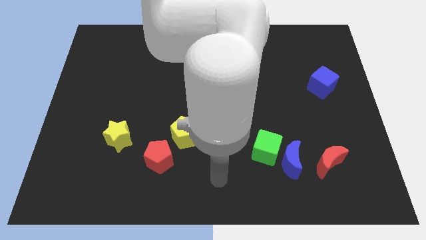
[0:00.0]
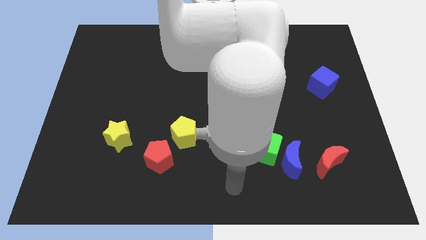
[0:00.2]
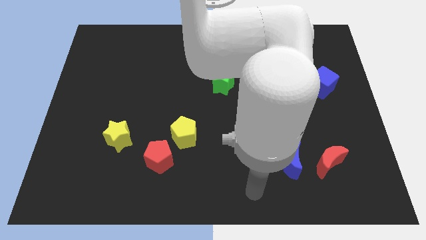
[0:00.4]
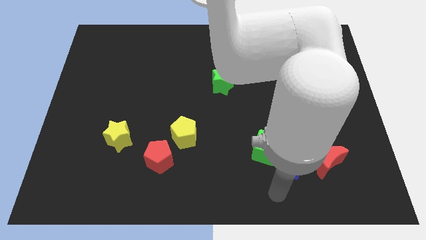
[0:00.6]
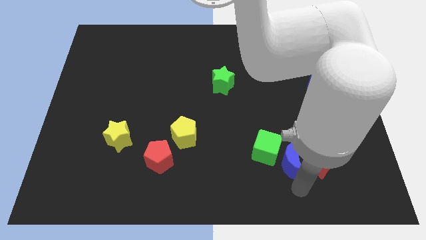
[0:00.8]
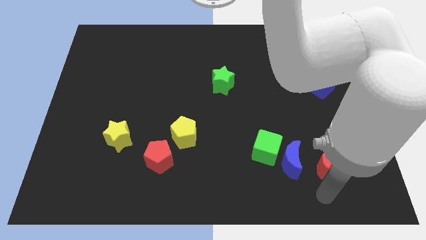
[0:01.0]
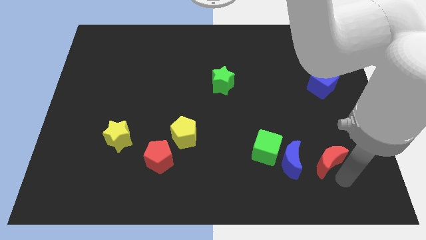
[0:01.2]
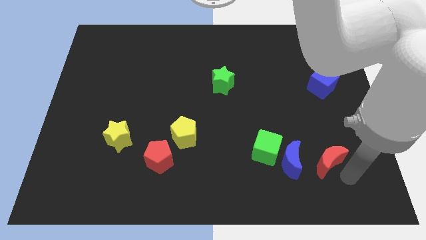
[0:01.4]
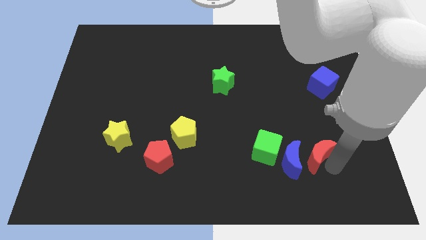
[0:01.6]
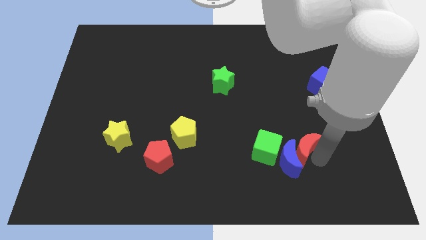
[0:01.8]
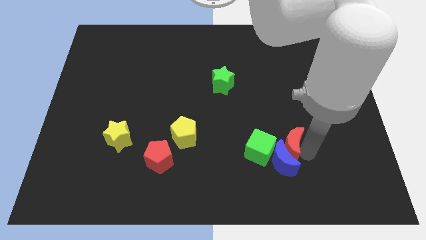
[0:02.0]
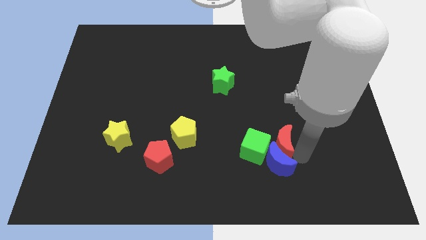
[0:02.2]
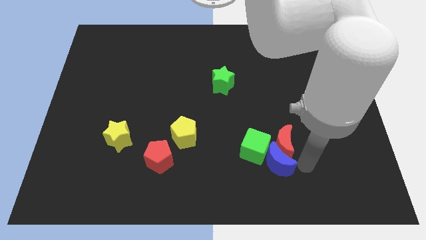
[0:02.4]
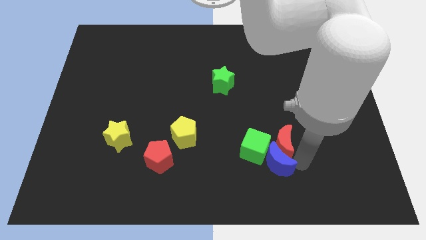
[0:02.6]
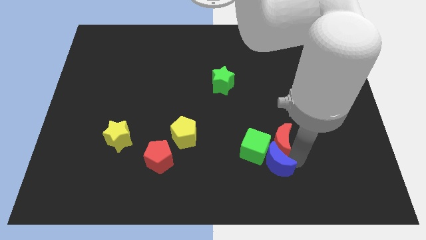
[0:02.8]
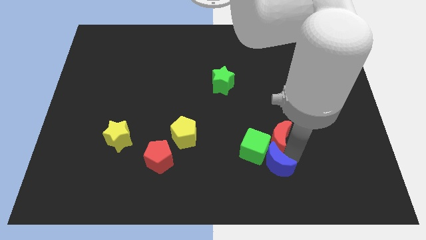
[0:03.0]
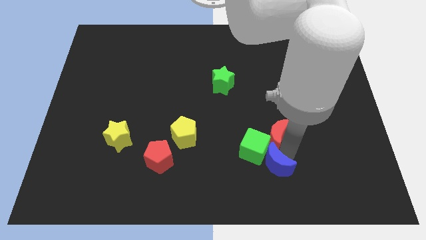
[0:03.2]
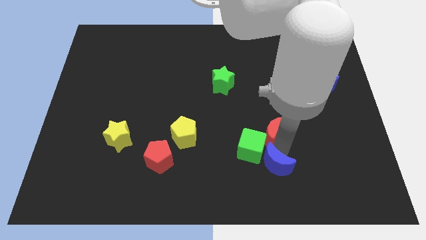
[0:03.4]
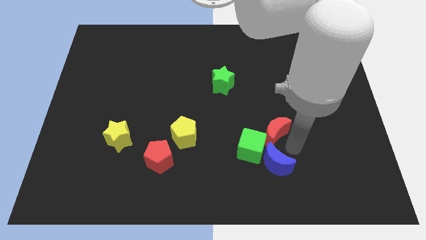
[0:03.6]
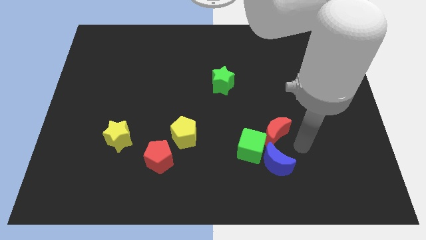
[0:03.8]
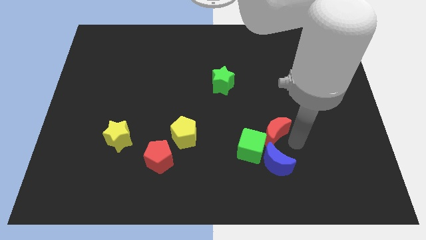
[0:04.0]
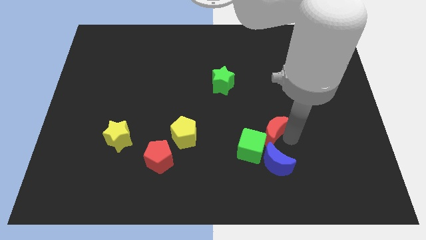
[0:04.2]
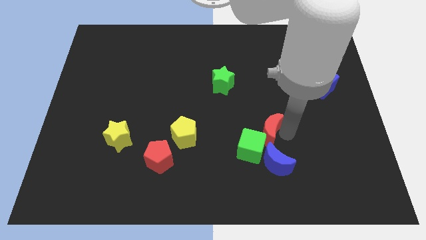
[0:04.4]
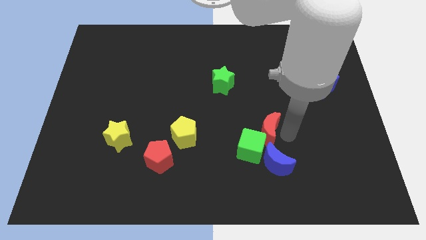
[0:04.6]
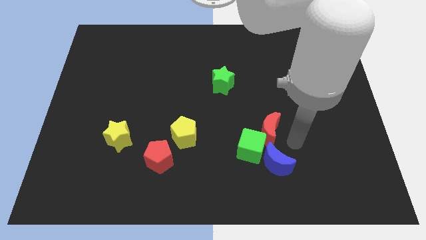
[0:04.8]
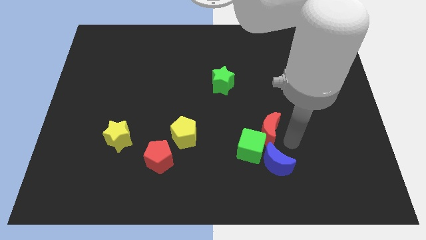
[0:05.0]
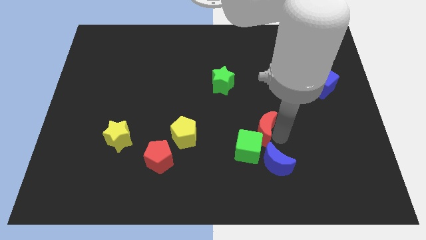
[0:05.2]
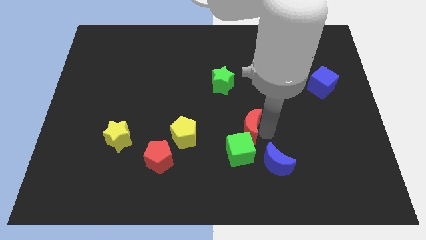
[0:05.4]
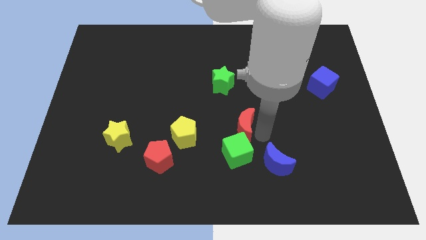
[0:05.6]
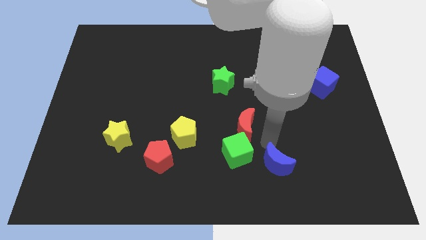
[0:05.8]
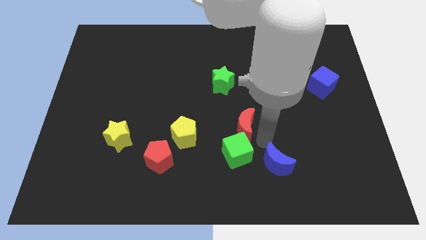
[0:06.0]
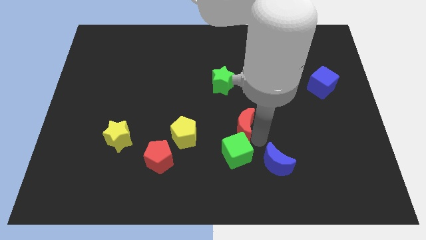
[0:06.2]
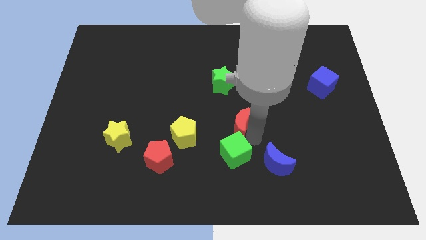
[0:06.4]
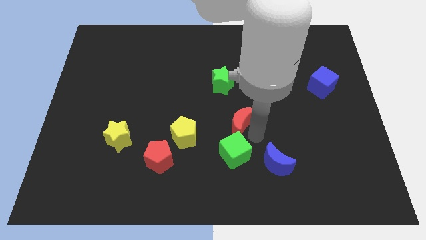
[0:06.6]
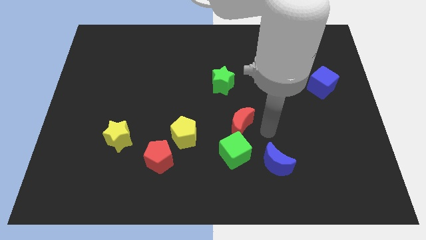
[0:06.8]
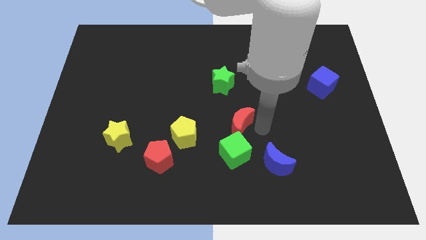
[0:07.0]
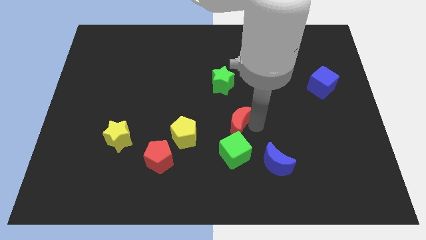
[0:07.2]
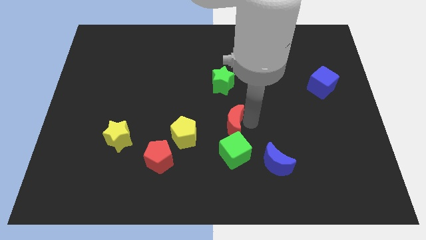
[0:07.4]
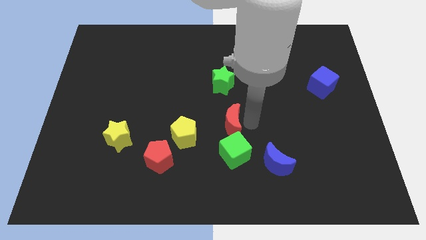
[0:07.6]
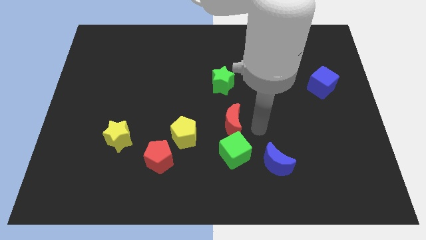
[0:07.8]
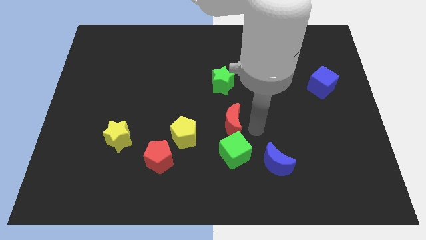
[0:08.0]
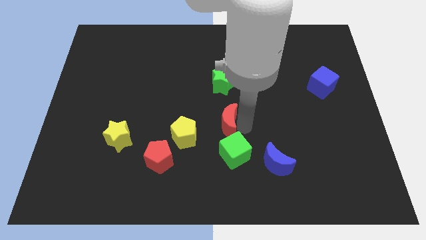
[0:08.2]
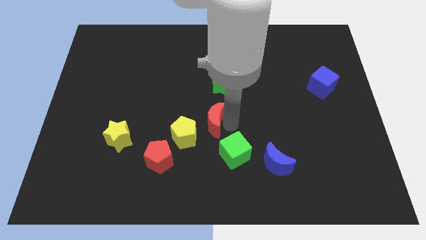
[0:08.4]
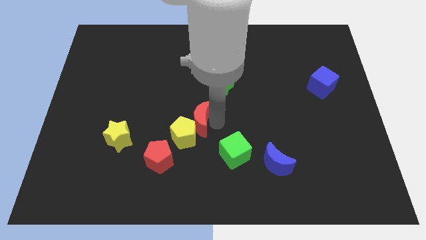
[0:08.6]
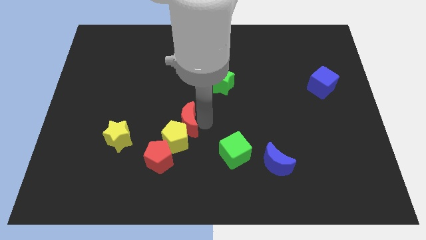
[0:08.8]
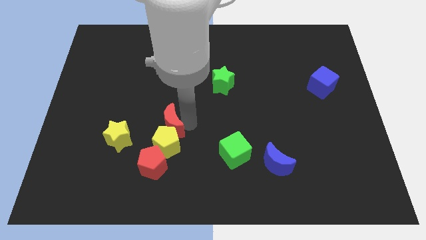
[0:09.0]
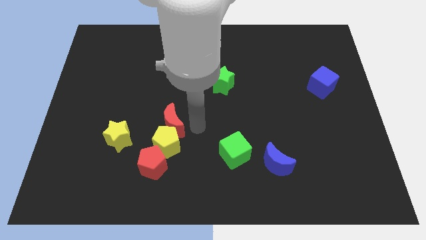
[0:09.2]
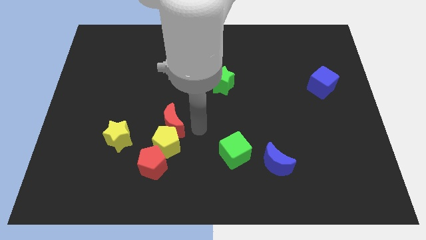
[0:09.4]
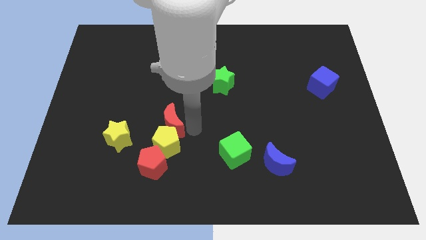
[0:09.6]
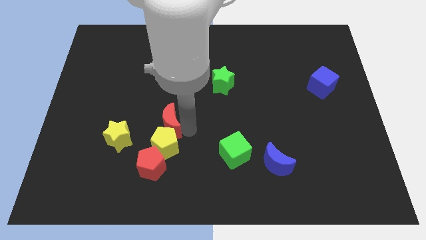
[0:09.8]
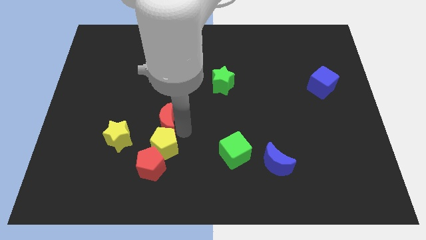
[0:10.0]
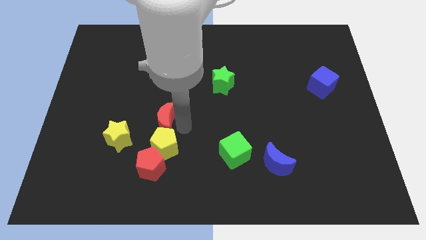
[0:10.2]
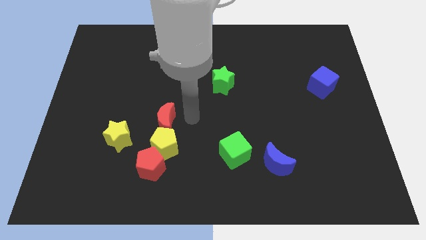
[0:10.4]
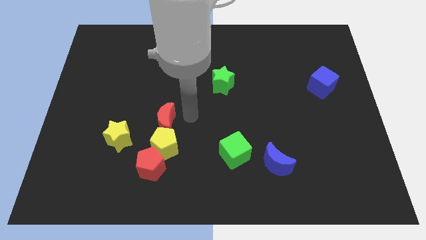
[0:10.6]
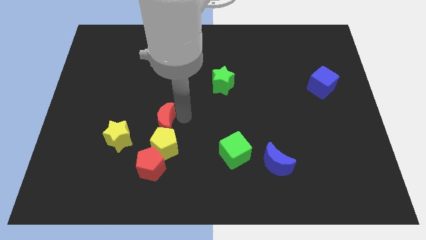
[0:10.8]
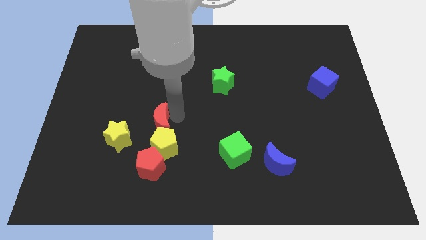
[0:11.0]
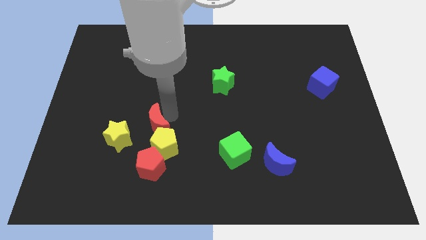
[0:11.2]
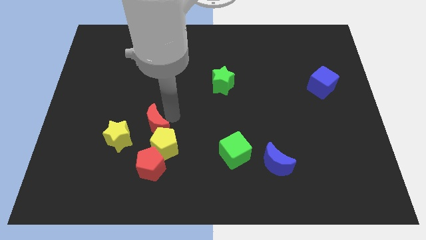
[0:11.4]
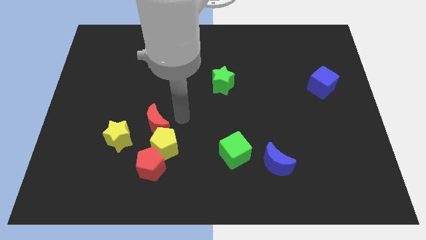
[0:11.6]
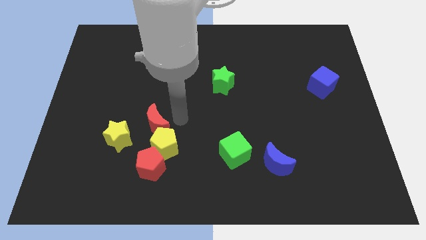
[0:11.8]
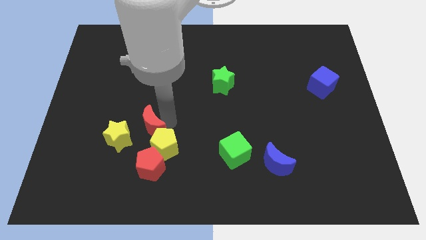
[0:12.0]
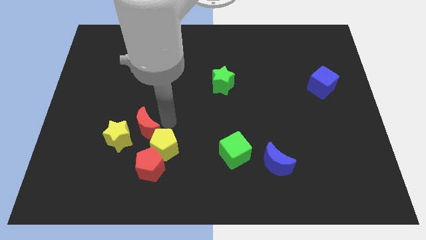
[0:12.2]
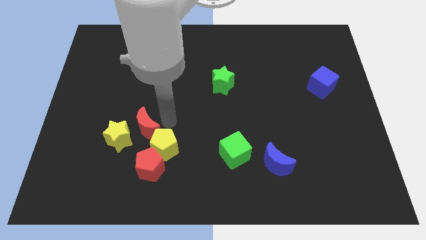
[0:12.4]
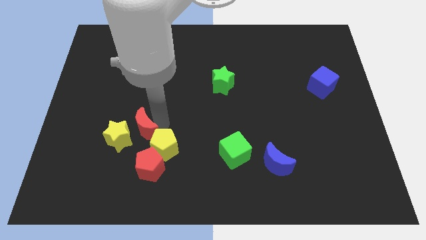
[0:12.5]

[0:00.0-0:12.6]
move the red moon to the yellow star

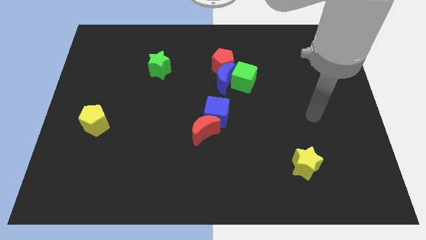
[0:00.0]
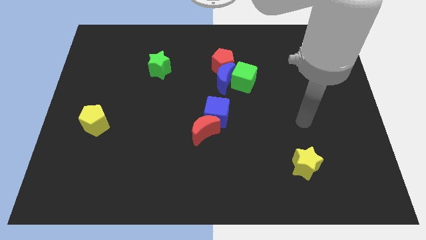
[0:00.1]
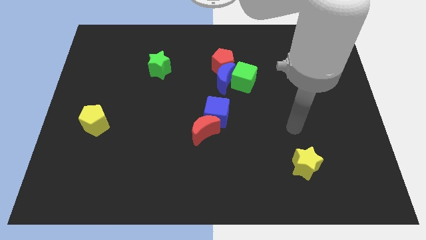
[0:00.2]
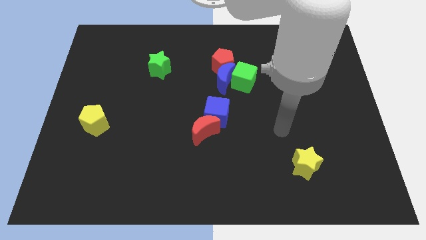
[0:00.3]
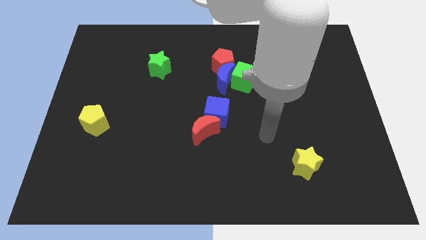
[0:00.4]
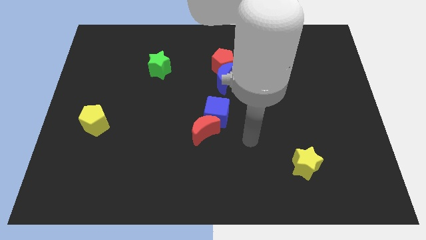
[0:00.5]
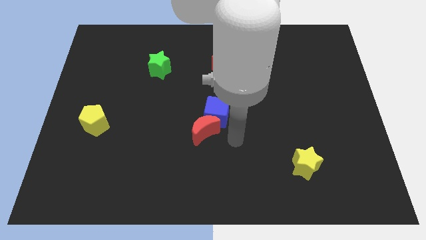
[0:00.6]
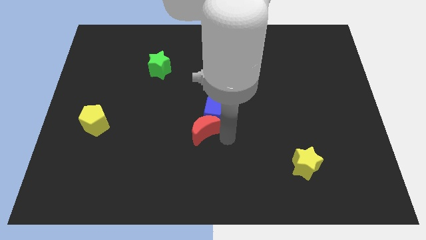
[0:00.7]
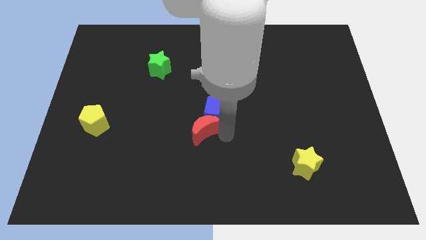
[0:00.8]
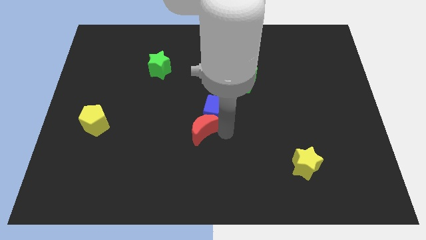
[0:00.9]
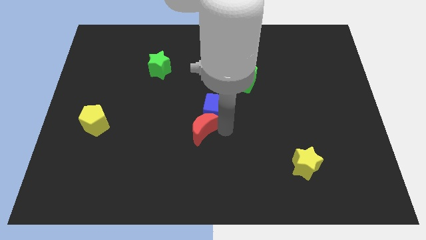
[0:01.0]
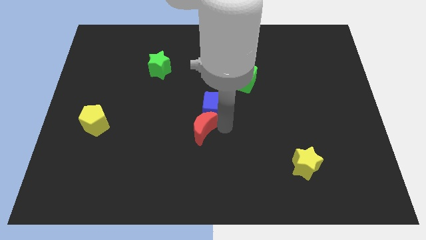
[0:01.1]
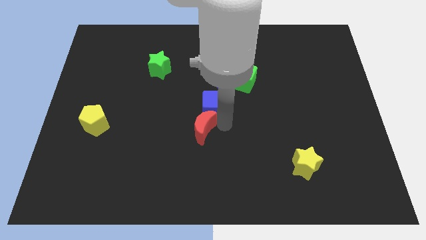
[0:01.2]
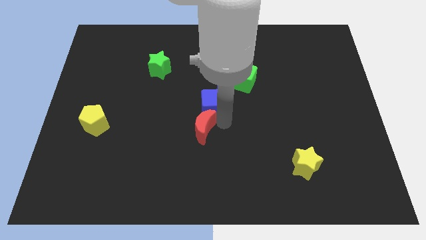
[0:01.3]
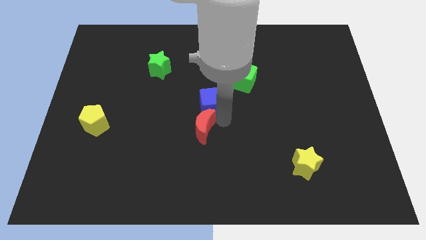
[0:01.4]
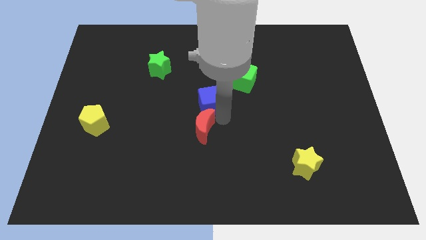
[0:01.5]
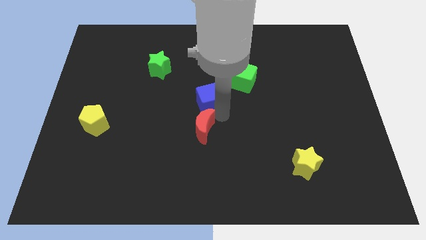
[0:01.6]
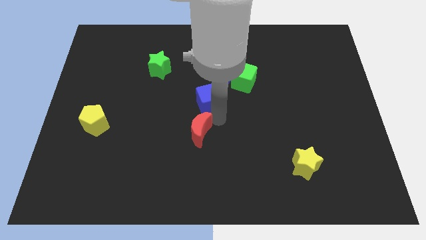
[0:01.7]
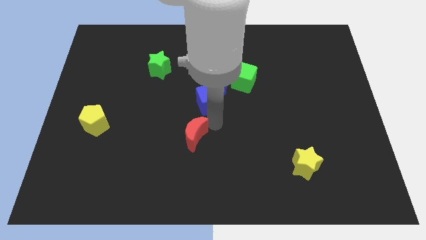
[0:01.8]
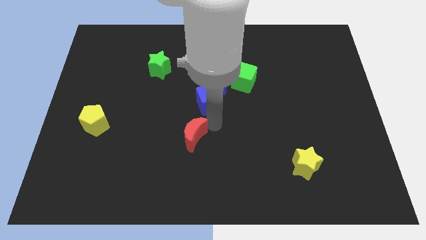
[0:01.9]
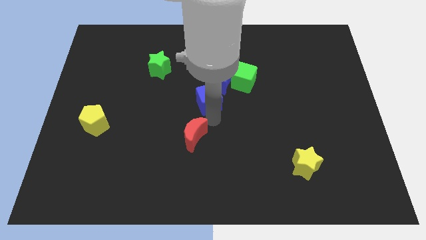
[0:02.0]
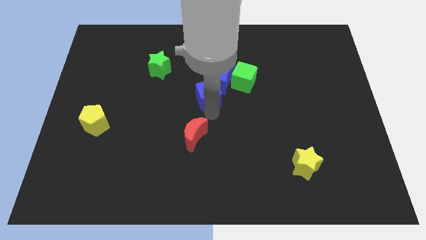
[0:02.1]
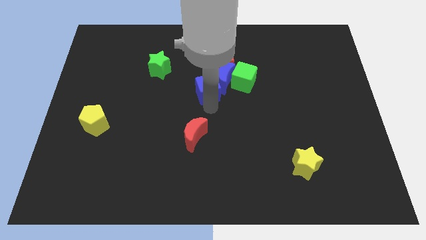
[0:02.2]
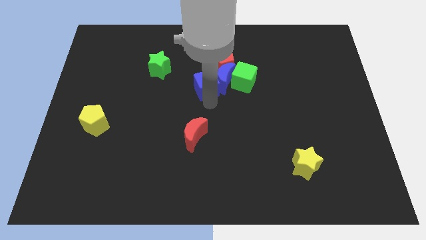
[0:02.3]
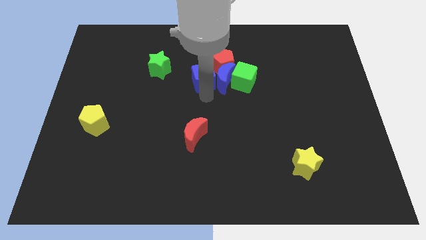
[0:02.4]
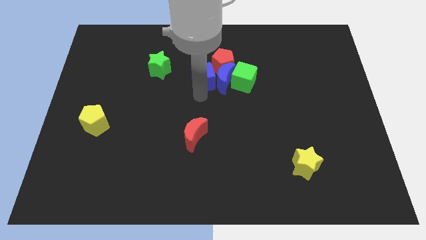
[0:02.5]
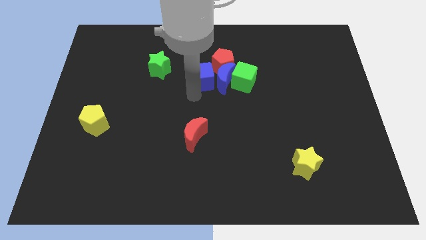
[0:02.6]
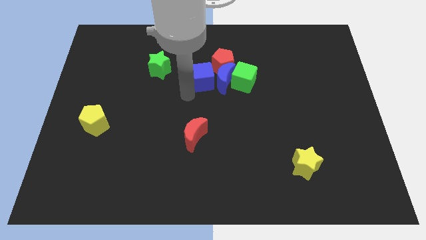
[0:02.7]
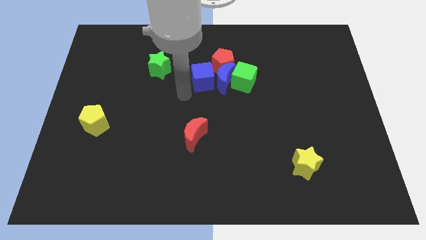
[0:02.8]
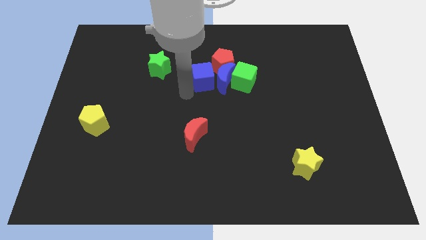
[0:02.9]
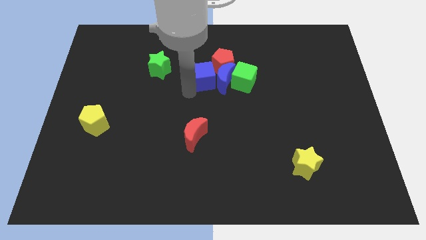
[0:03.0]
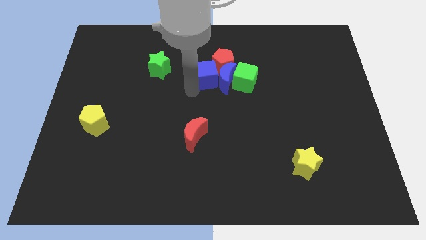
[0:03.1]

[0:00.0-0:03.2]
move the blue cube close to the red pentagon
